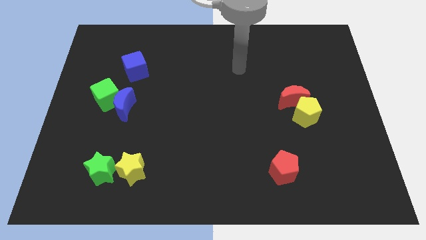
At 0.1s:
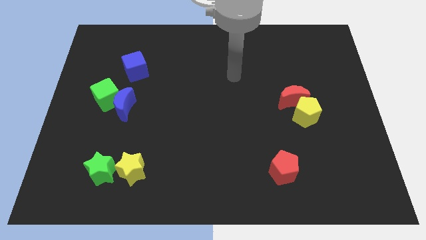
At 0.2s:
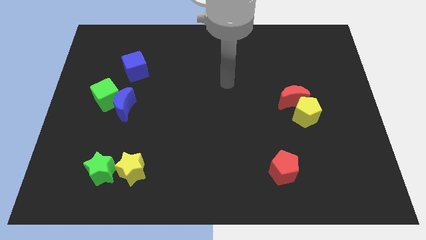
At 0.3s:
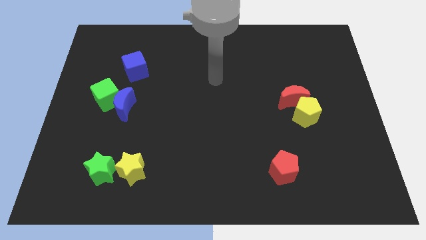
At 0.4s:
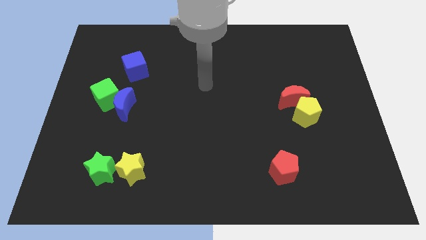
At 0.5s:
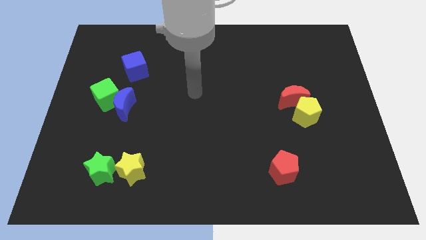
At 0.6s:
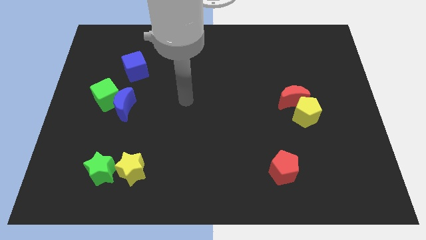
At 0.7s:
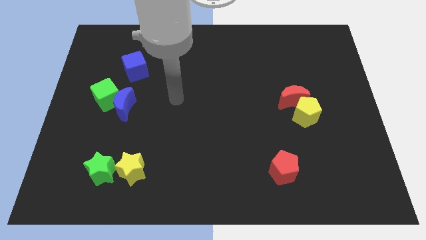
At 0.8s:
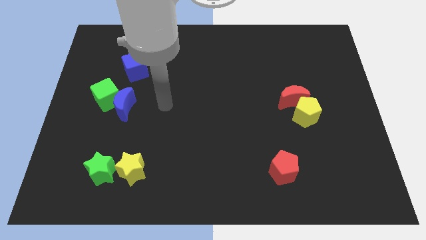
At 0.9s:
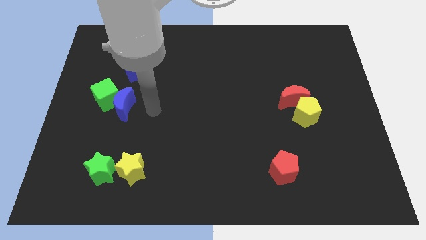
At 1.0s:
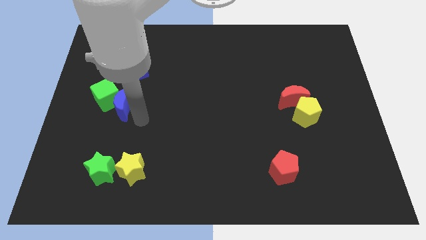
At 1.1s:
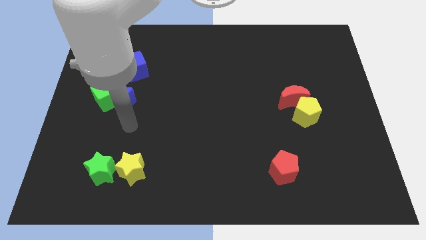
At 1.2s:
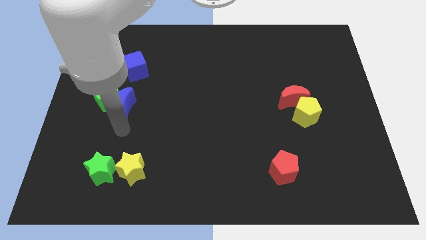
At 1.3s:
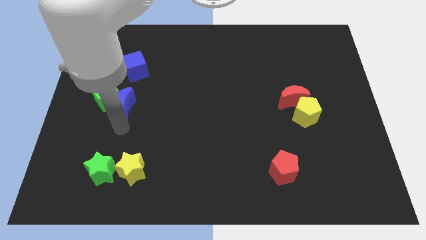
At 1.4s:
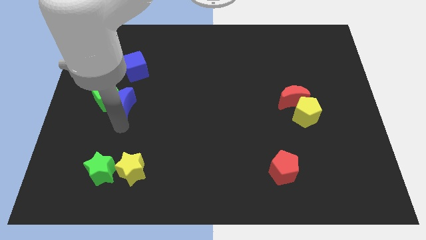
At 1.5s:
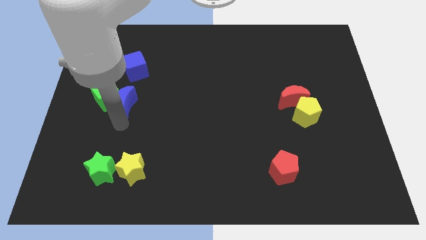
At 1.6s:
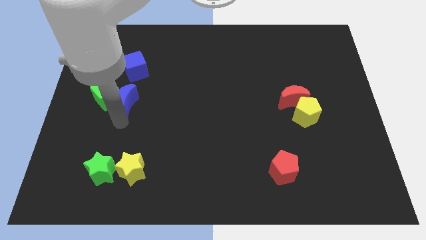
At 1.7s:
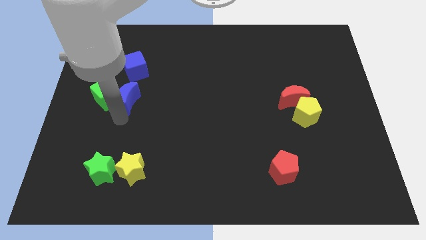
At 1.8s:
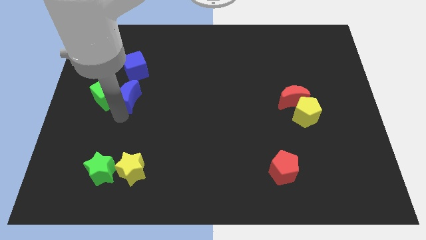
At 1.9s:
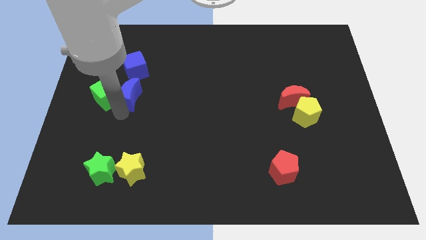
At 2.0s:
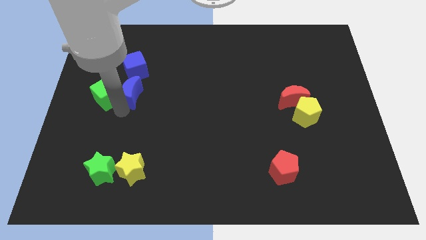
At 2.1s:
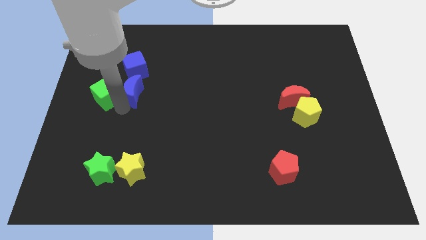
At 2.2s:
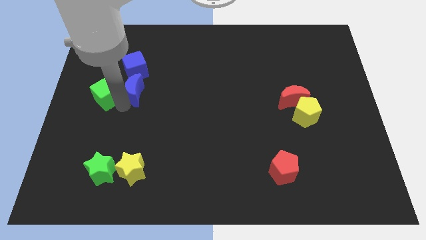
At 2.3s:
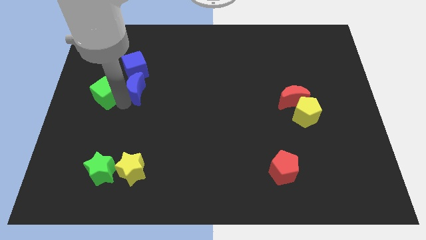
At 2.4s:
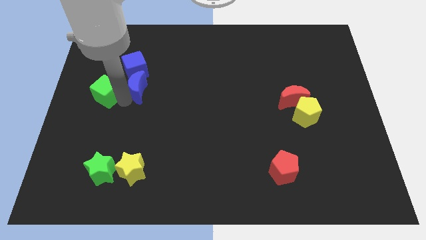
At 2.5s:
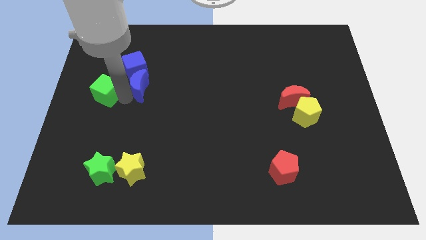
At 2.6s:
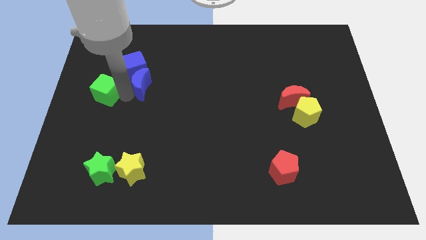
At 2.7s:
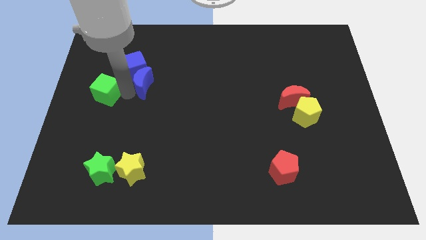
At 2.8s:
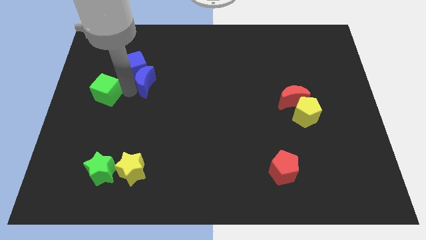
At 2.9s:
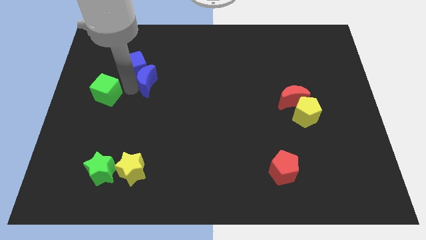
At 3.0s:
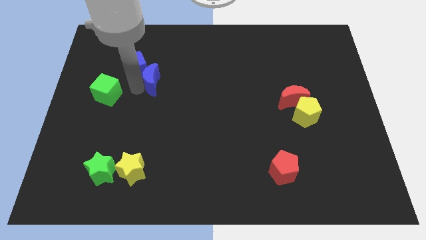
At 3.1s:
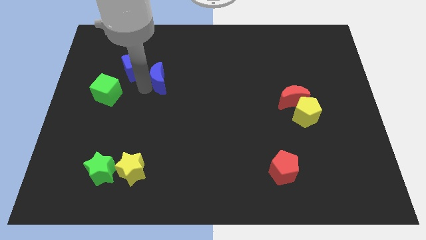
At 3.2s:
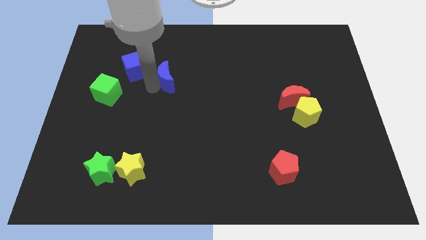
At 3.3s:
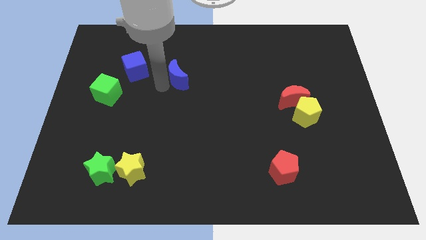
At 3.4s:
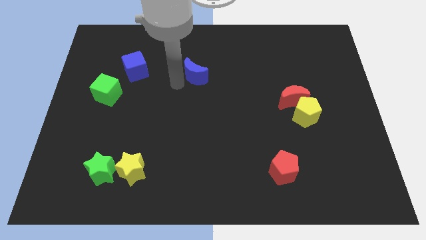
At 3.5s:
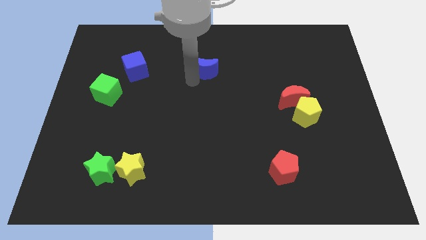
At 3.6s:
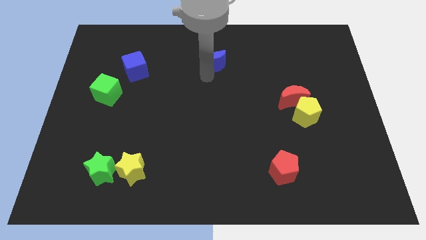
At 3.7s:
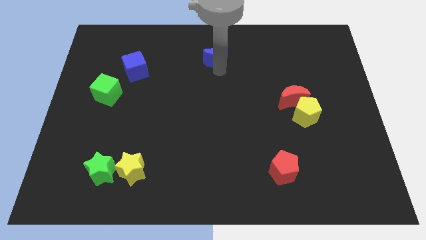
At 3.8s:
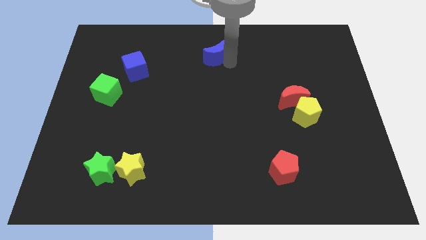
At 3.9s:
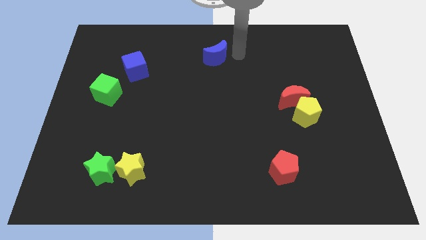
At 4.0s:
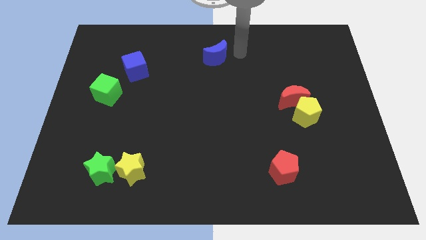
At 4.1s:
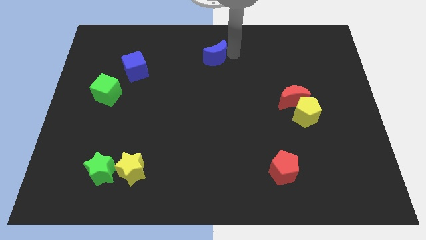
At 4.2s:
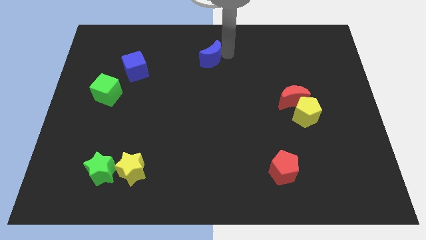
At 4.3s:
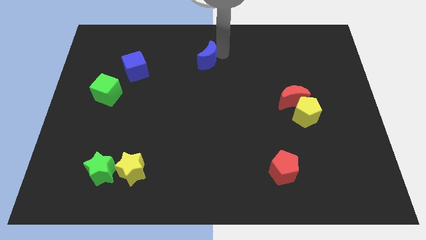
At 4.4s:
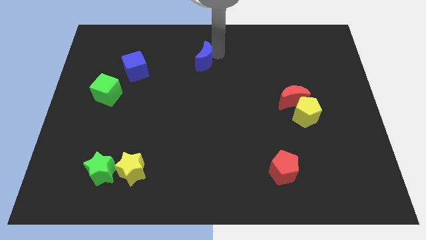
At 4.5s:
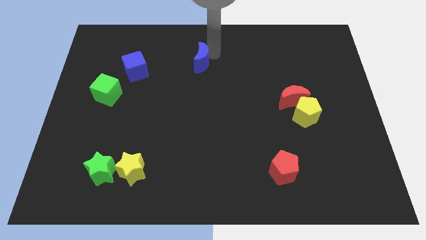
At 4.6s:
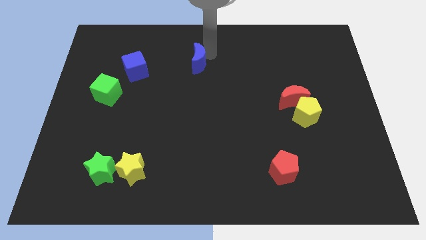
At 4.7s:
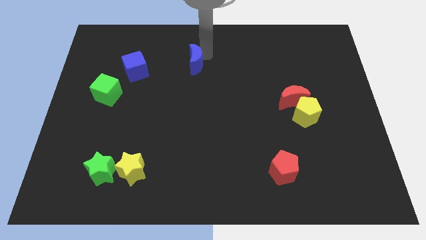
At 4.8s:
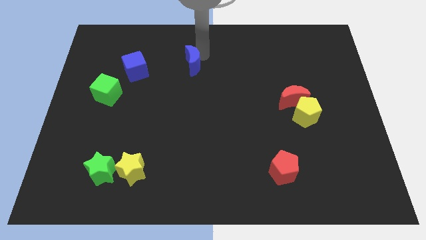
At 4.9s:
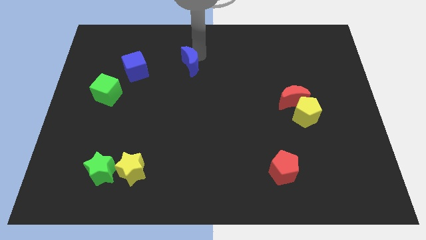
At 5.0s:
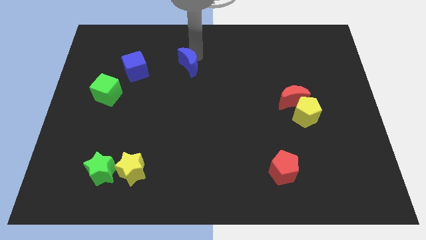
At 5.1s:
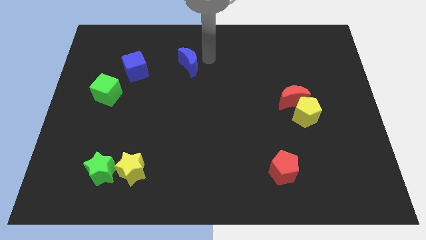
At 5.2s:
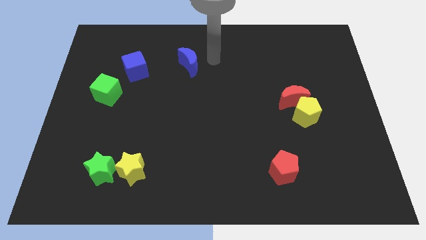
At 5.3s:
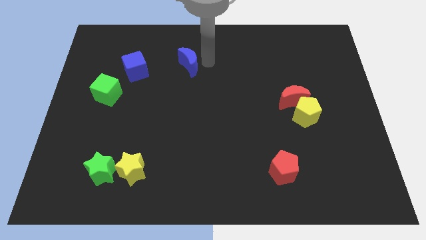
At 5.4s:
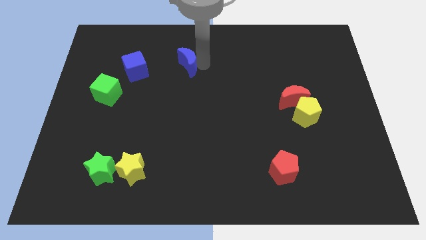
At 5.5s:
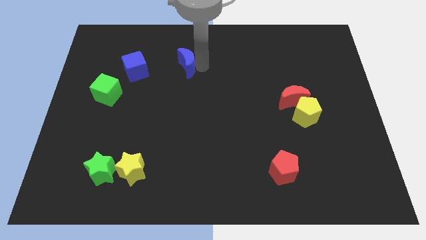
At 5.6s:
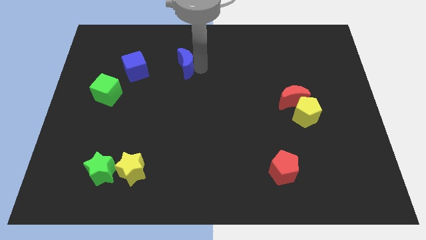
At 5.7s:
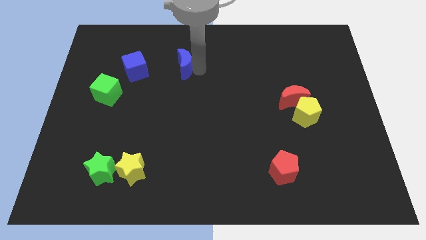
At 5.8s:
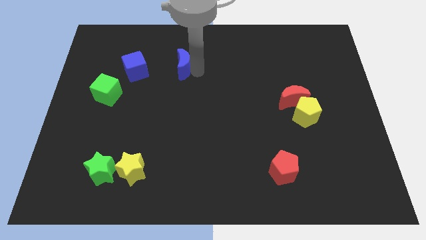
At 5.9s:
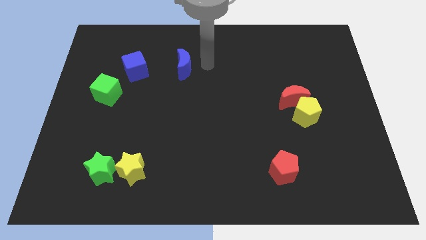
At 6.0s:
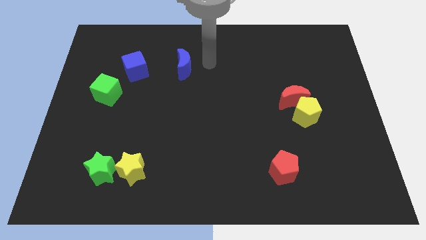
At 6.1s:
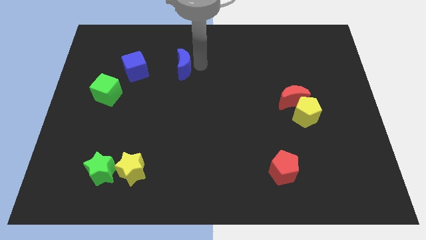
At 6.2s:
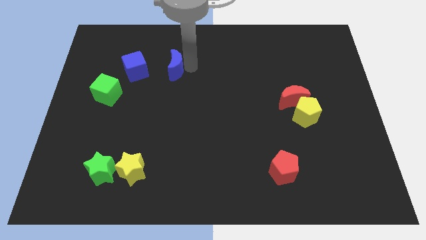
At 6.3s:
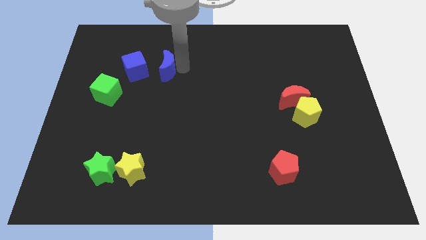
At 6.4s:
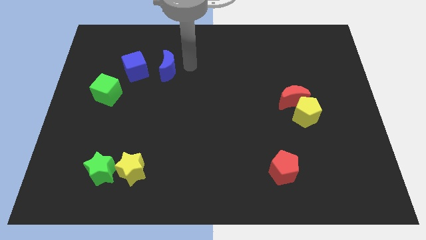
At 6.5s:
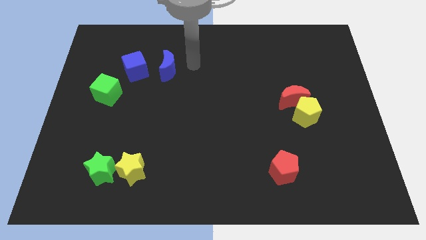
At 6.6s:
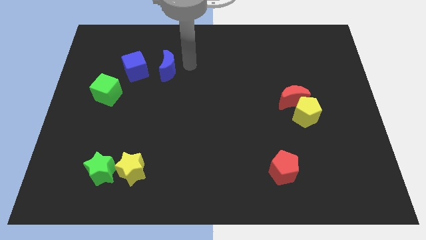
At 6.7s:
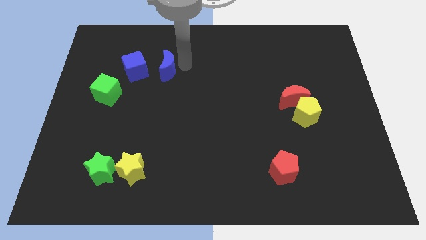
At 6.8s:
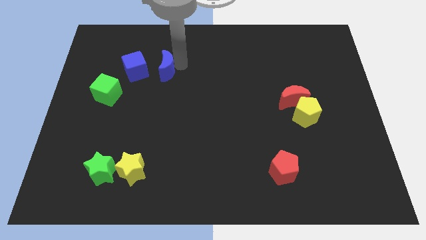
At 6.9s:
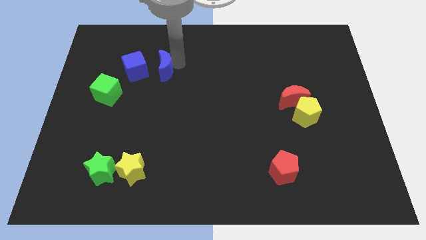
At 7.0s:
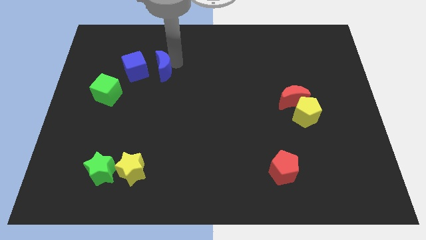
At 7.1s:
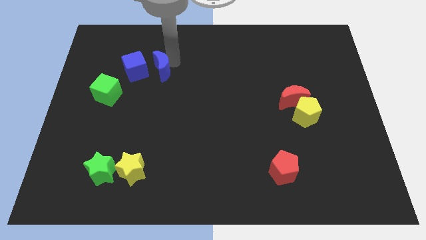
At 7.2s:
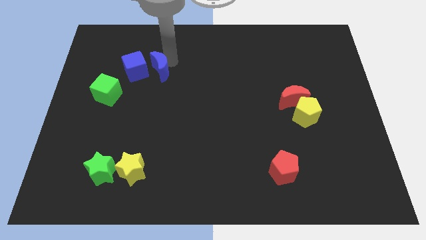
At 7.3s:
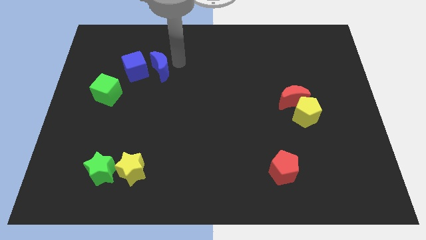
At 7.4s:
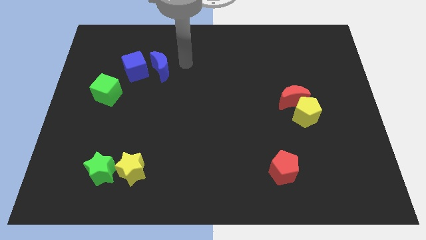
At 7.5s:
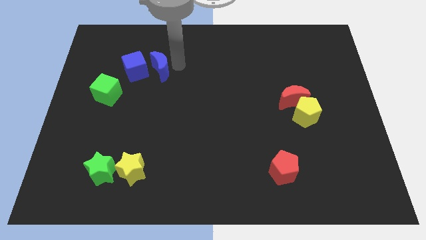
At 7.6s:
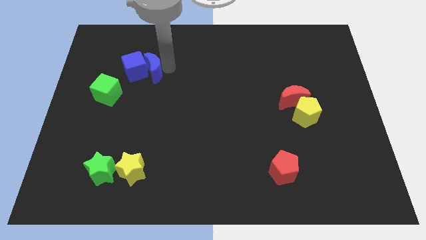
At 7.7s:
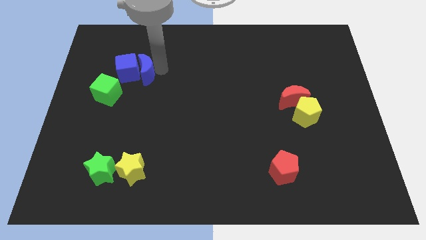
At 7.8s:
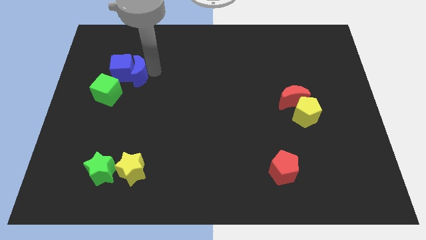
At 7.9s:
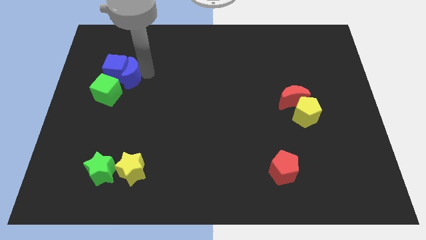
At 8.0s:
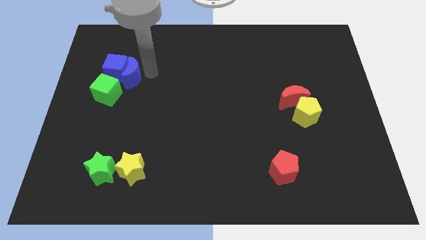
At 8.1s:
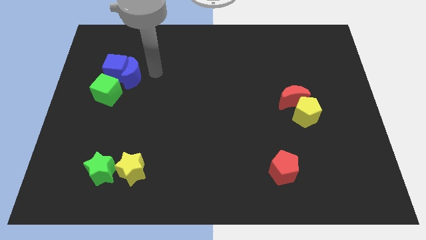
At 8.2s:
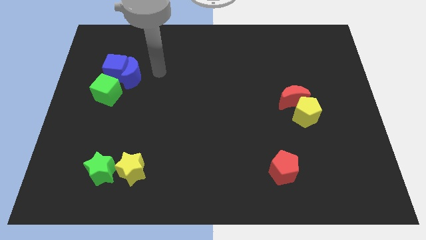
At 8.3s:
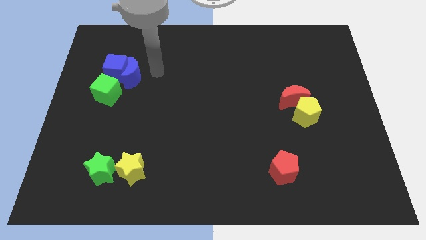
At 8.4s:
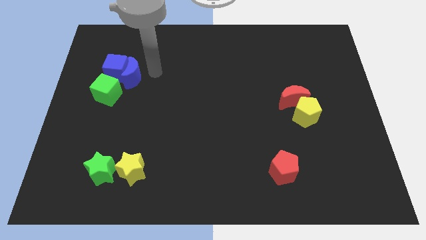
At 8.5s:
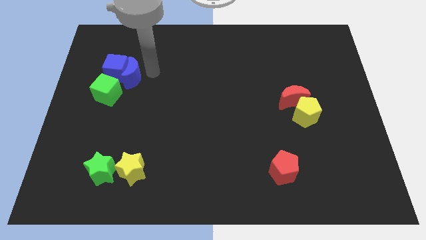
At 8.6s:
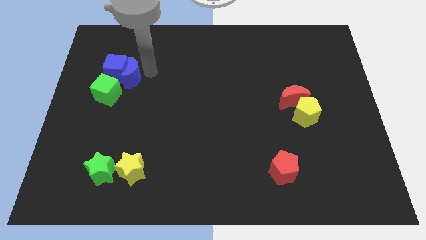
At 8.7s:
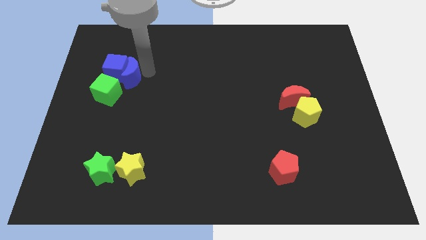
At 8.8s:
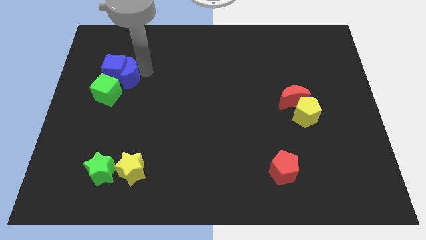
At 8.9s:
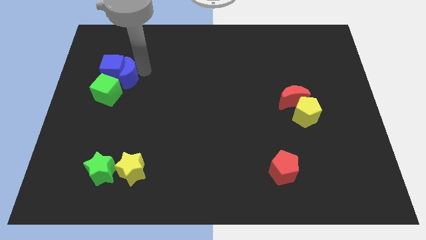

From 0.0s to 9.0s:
move the blue moon above the green cube
